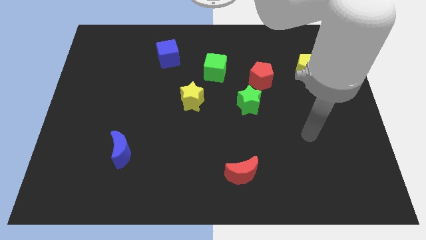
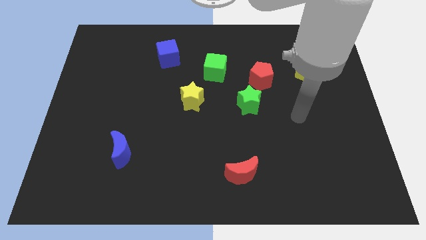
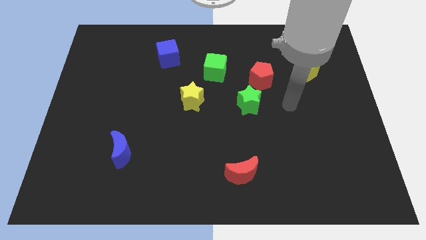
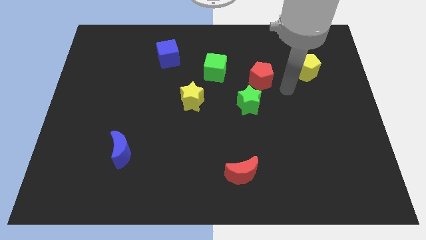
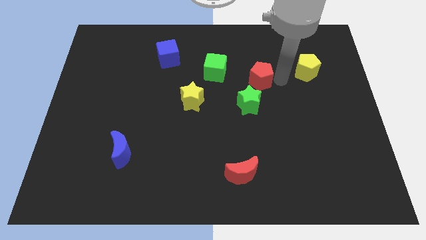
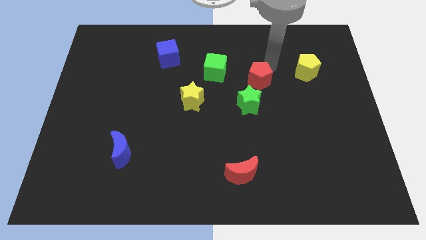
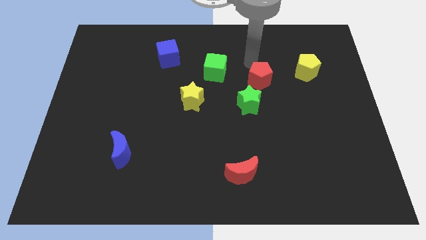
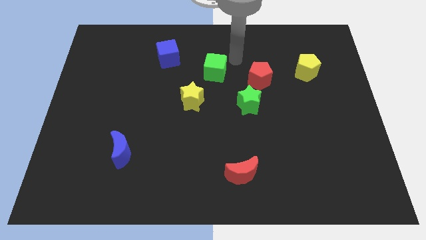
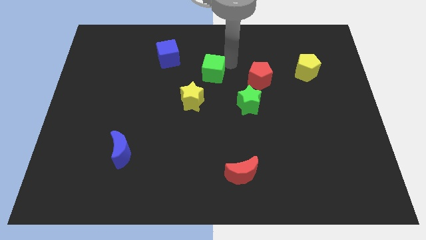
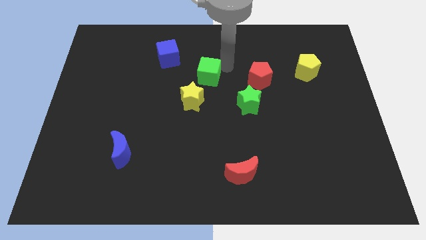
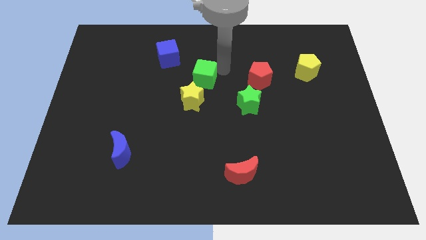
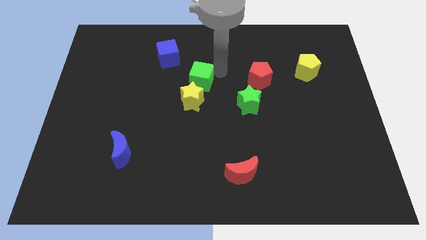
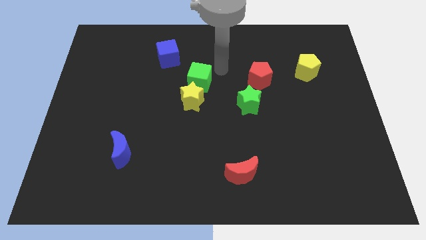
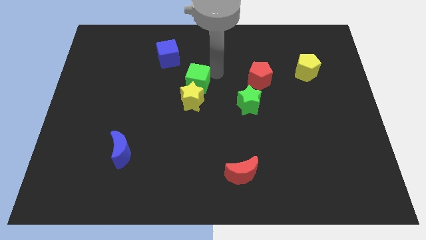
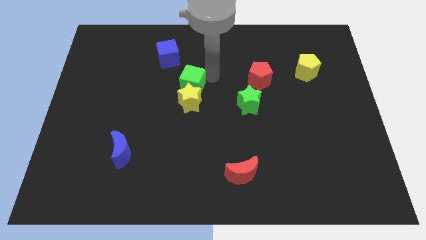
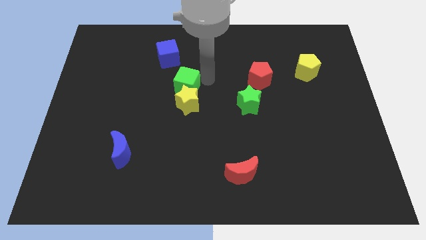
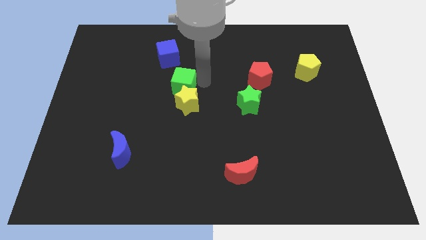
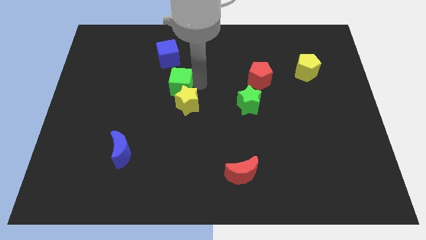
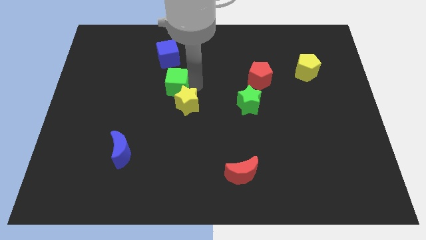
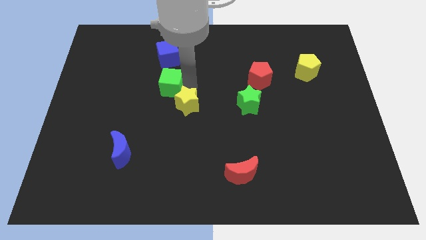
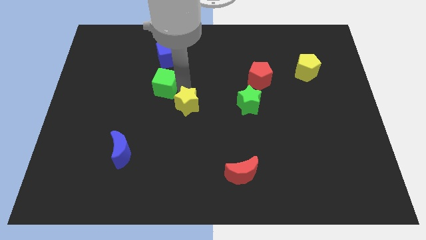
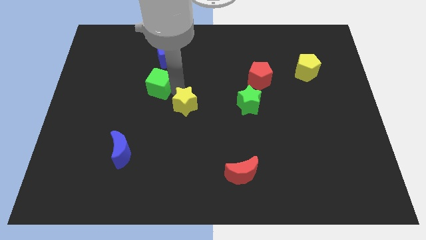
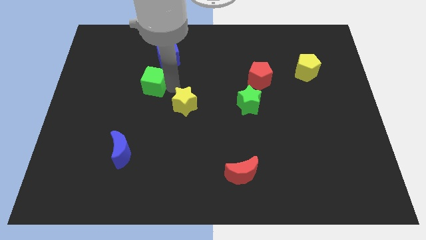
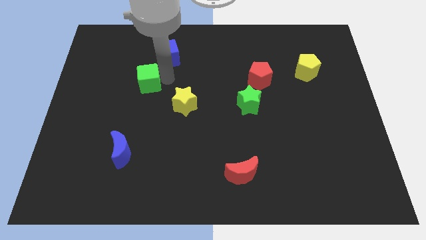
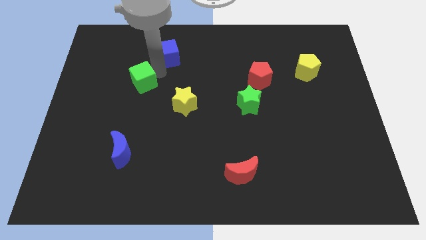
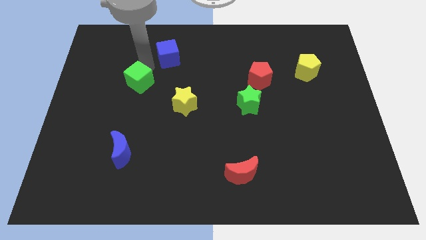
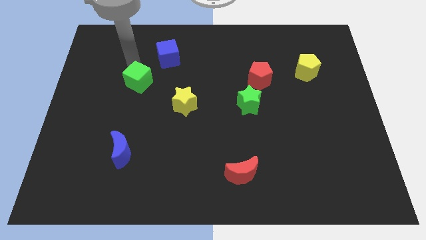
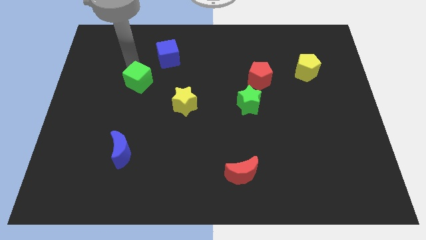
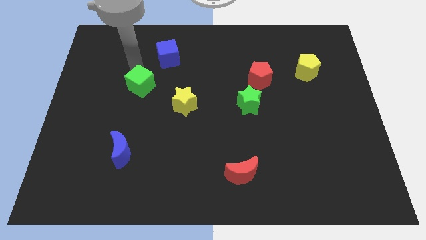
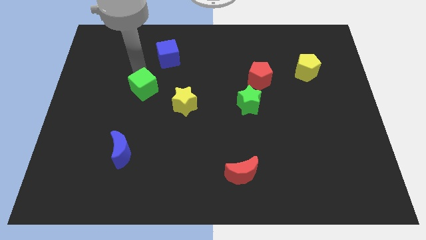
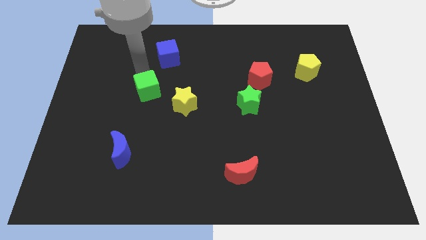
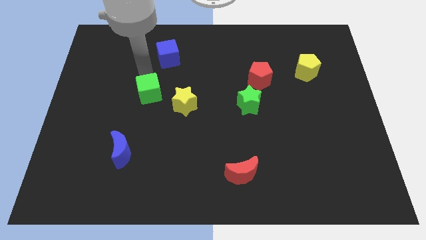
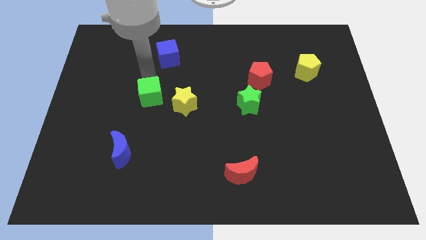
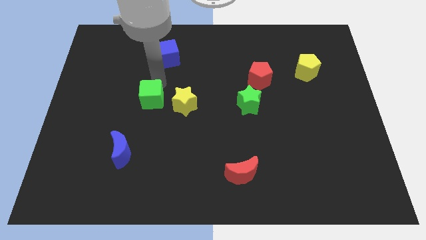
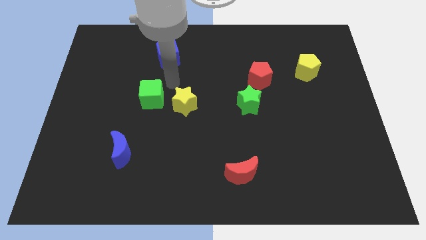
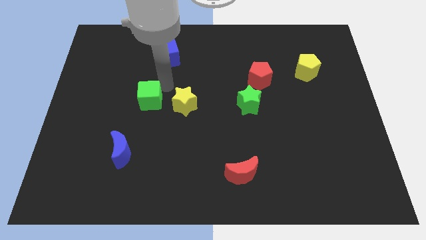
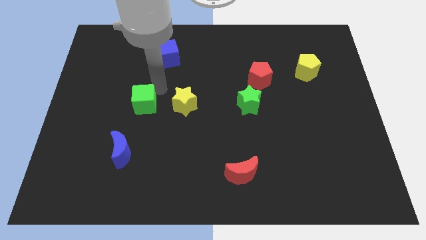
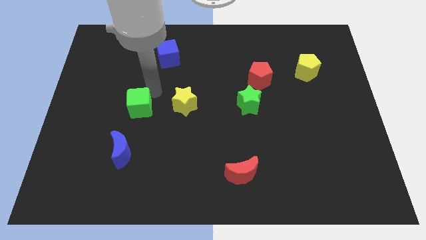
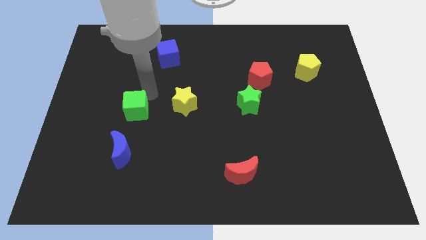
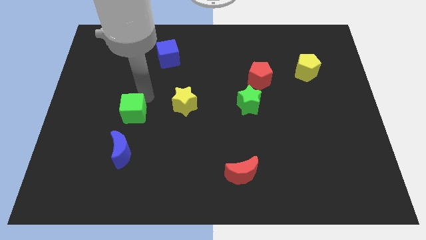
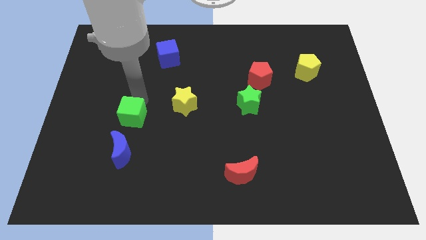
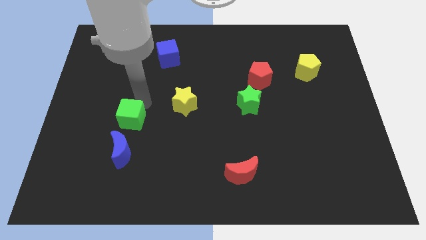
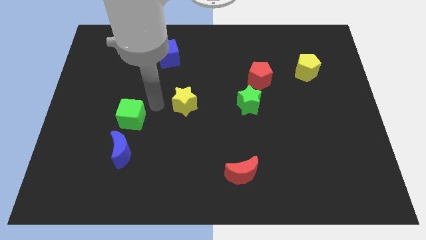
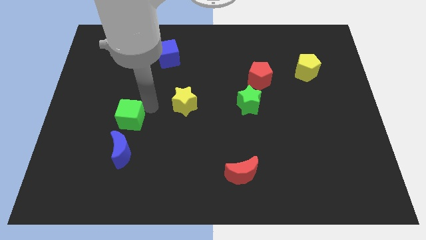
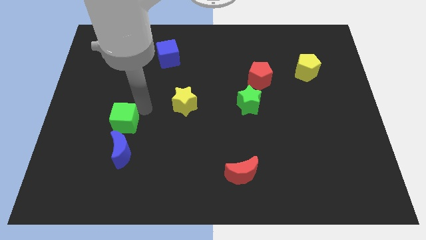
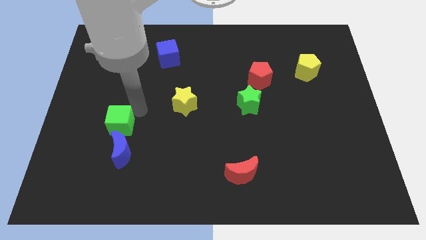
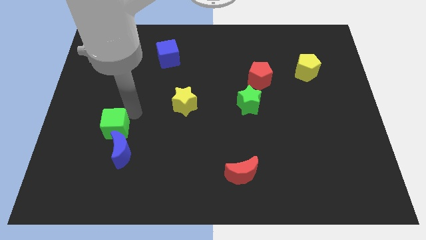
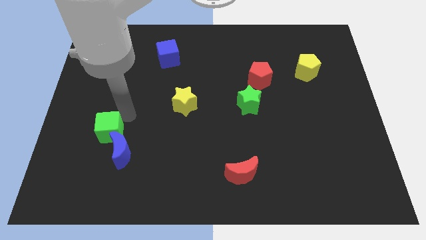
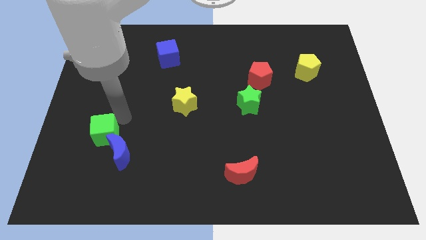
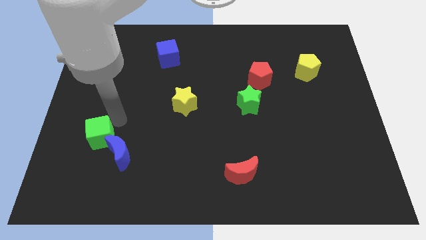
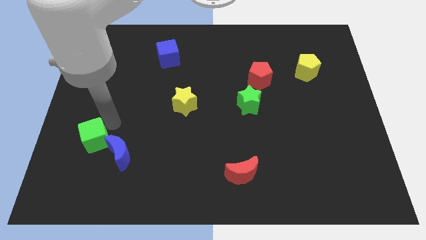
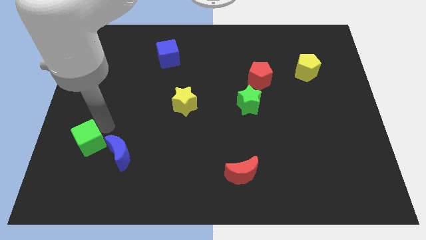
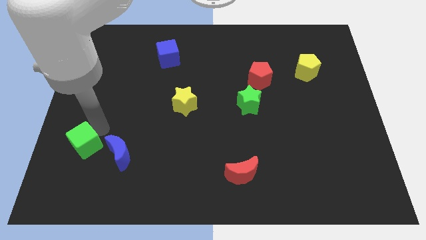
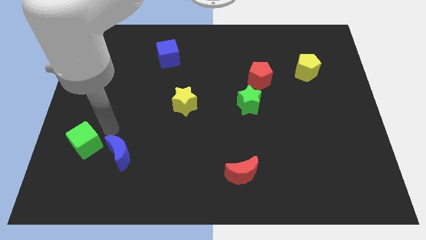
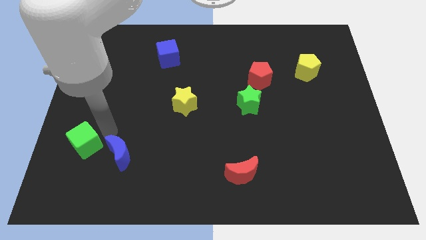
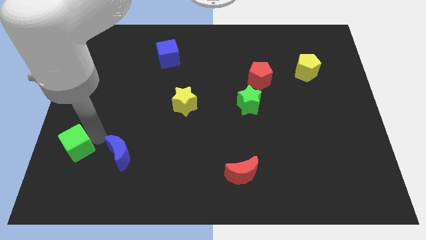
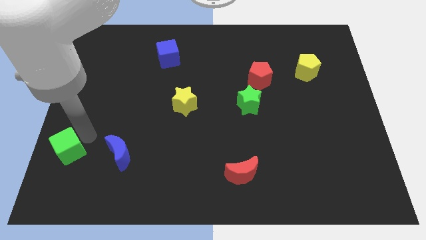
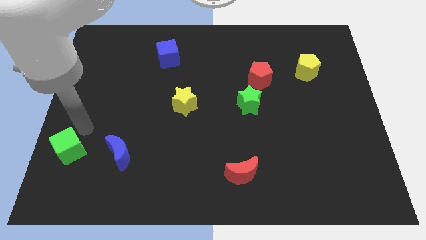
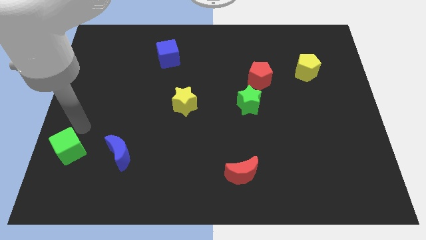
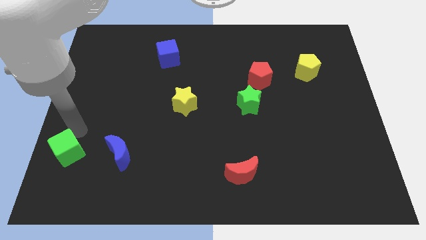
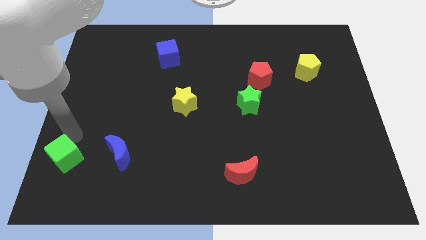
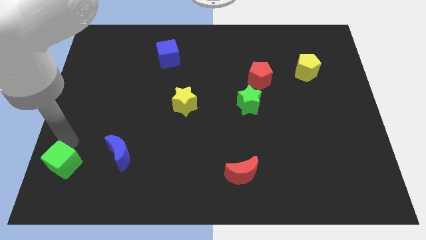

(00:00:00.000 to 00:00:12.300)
push the green cube to the lower left corner

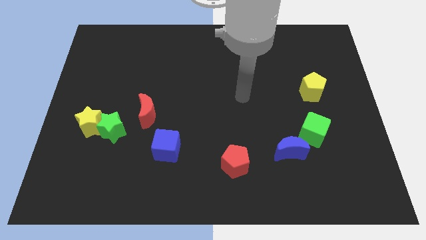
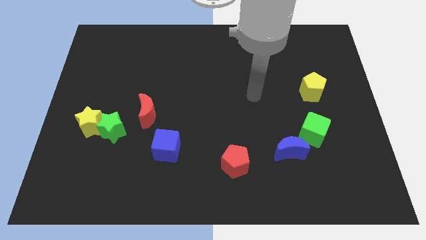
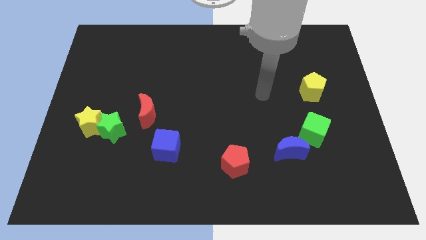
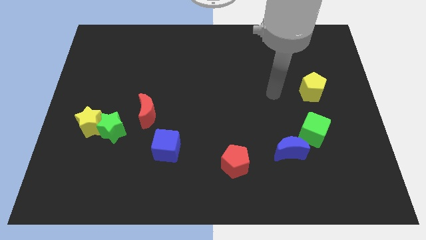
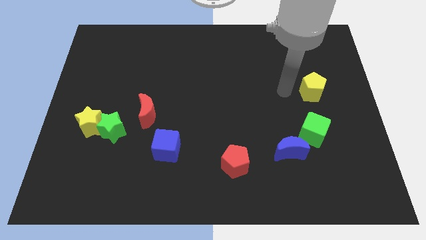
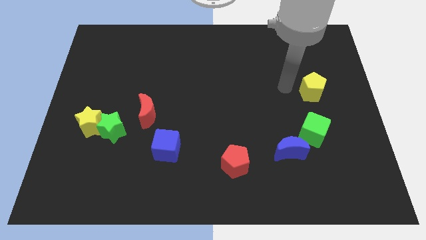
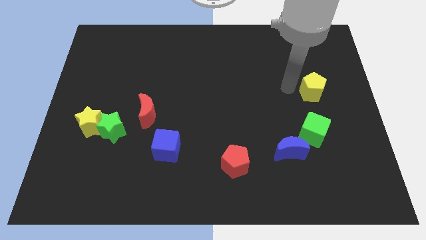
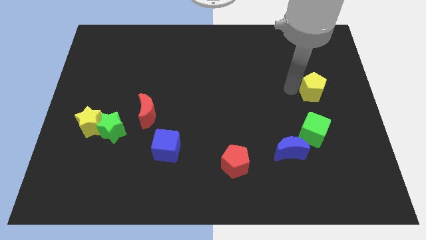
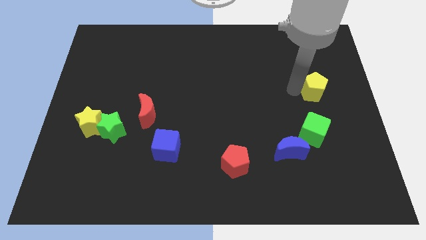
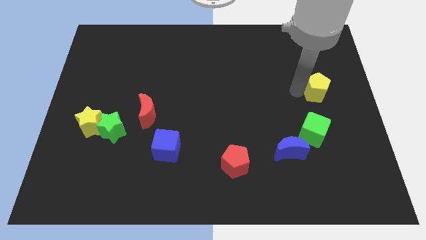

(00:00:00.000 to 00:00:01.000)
slide the yellow pentagon to the right side of the board
